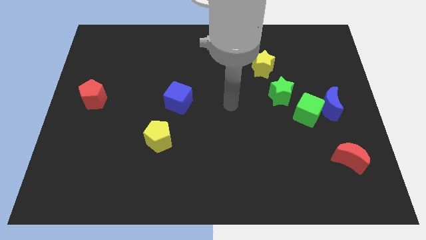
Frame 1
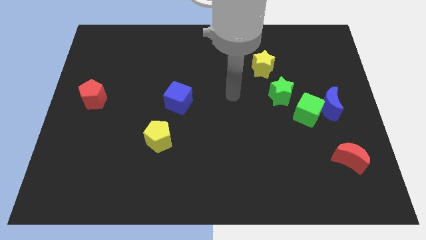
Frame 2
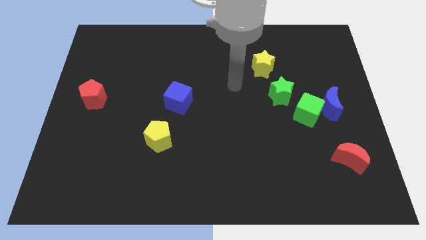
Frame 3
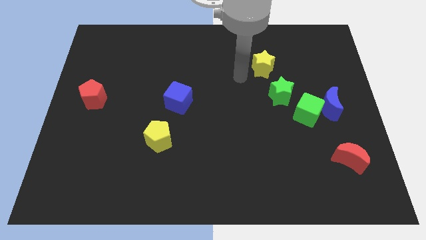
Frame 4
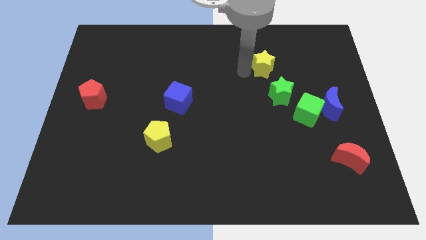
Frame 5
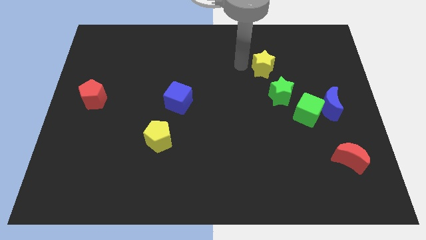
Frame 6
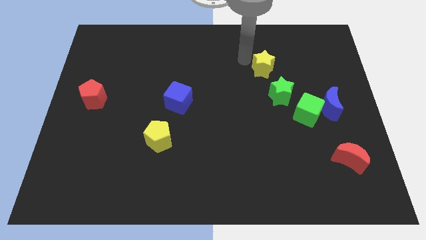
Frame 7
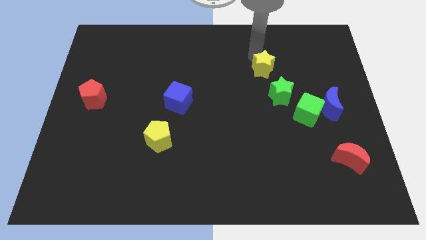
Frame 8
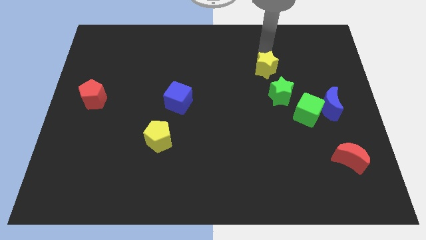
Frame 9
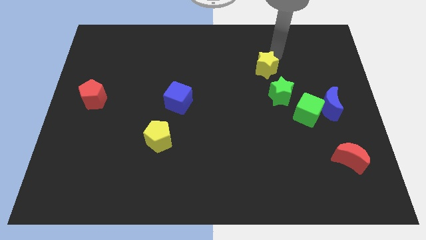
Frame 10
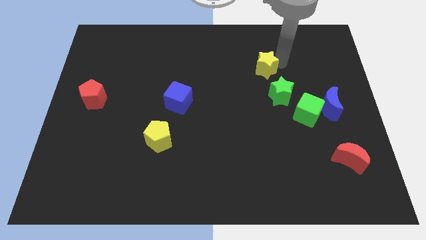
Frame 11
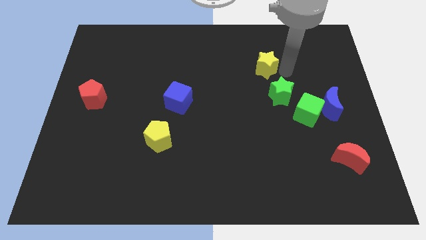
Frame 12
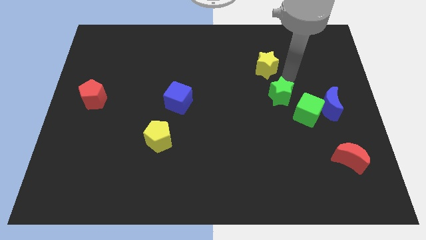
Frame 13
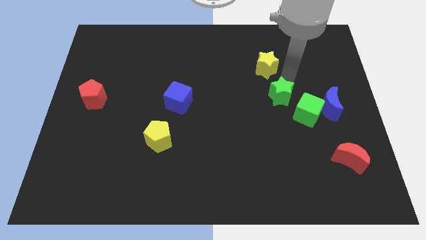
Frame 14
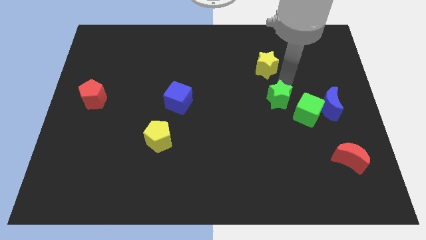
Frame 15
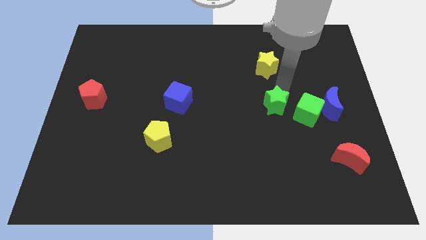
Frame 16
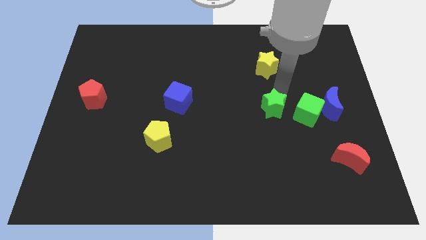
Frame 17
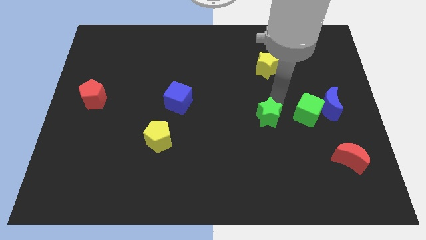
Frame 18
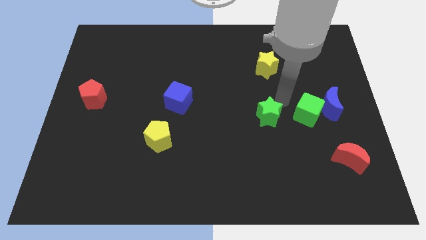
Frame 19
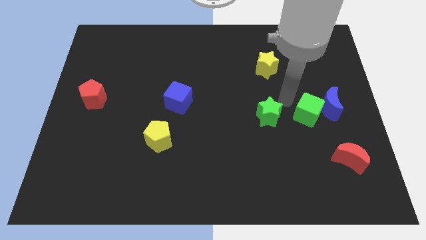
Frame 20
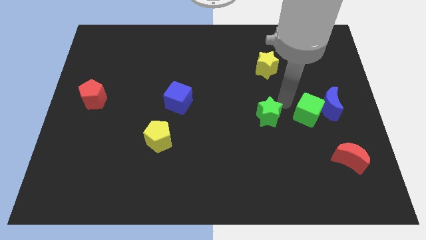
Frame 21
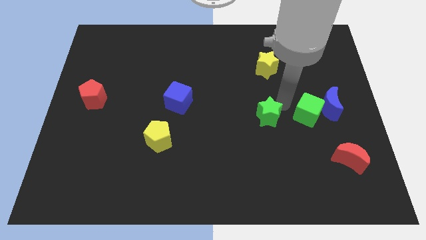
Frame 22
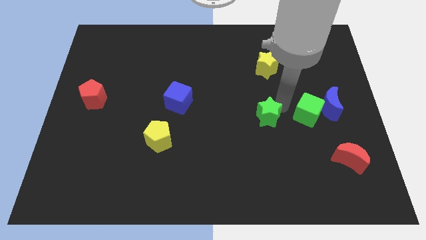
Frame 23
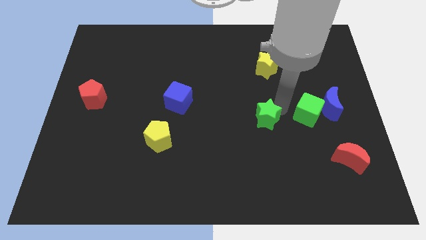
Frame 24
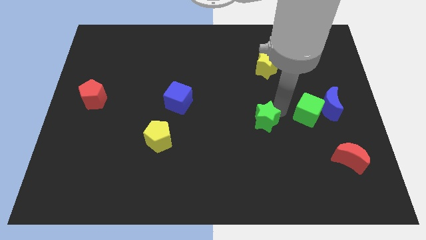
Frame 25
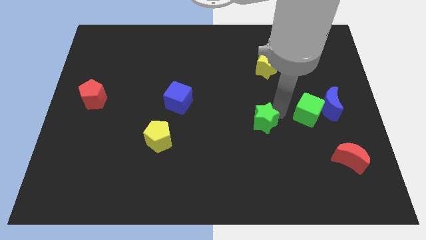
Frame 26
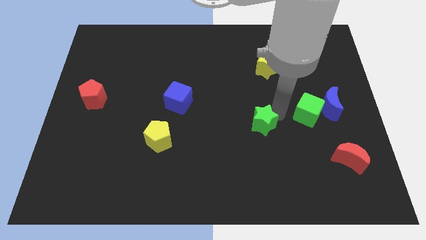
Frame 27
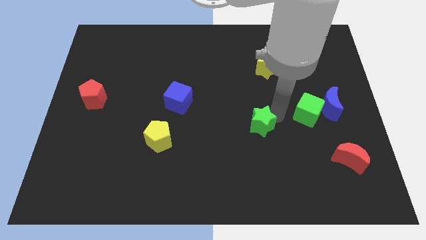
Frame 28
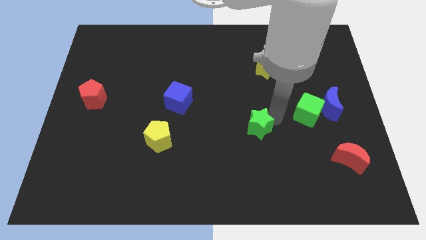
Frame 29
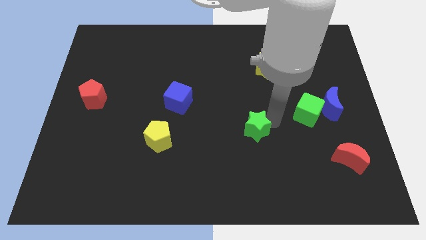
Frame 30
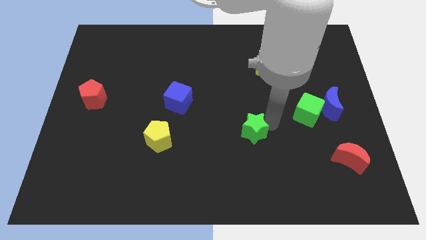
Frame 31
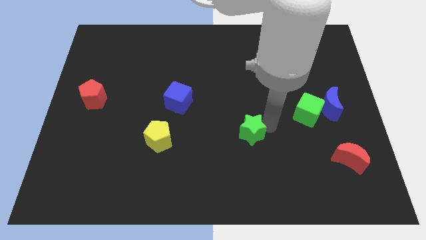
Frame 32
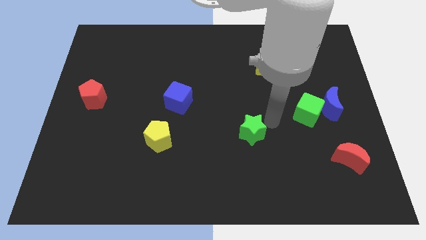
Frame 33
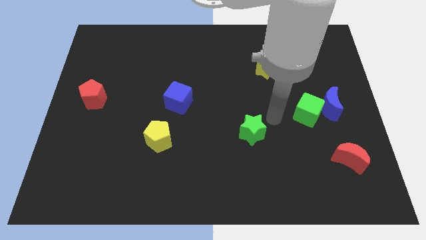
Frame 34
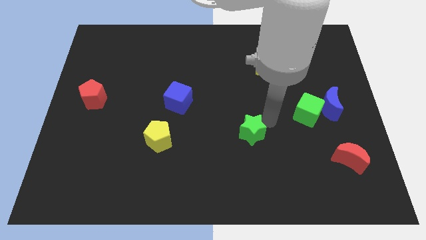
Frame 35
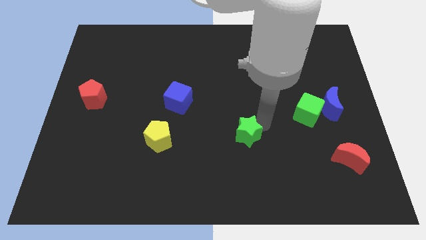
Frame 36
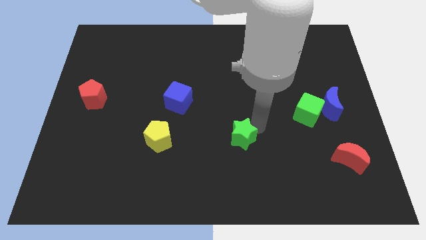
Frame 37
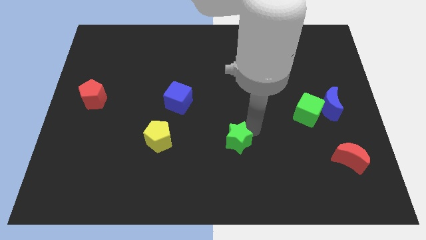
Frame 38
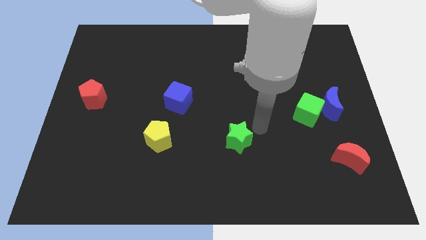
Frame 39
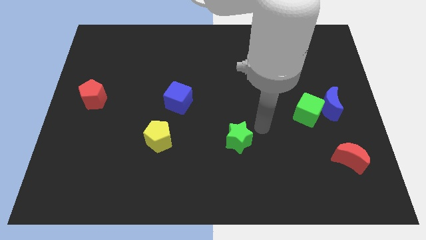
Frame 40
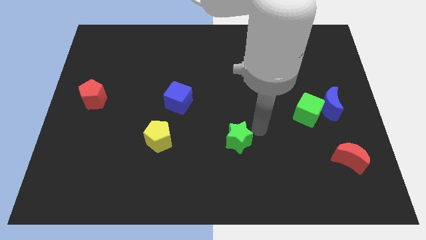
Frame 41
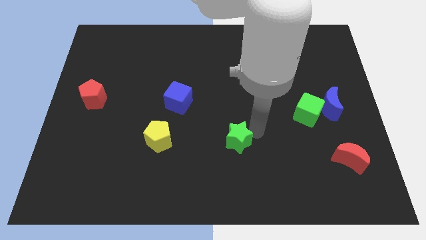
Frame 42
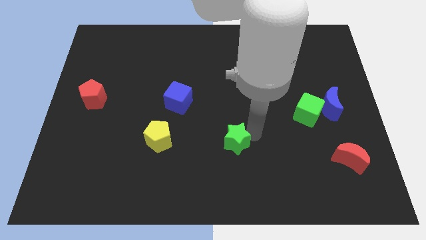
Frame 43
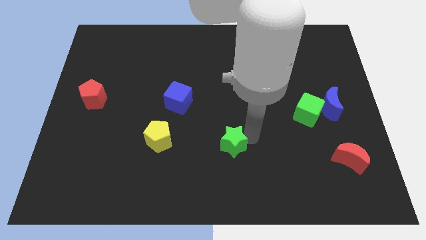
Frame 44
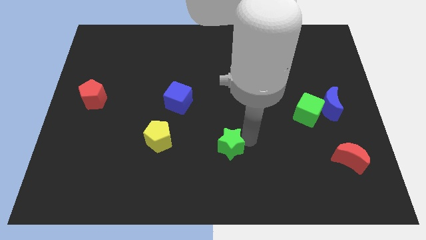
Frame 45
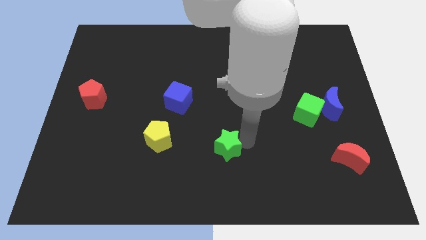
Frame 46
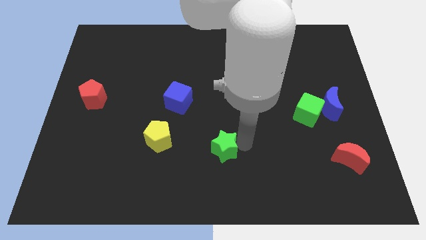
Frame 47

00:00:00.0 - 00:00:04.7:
slide the green star diagonally down and left

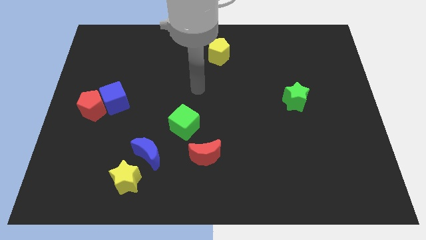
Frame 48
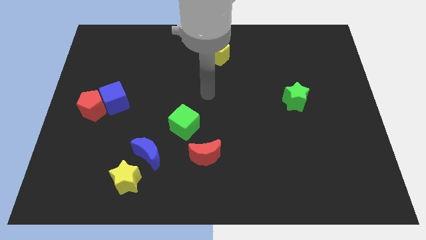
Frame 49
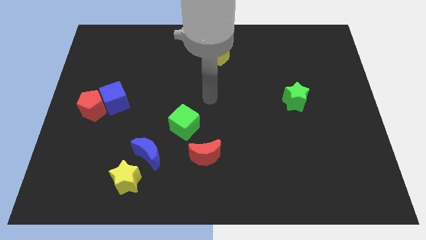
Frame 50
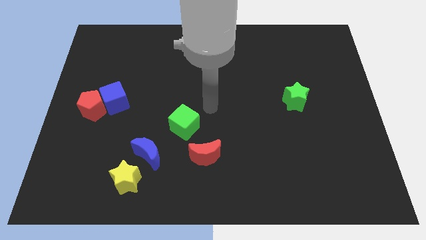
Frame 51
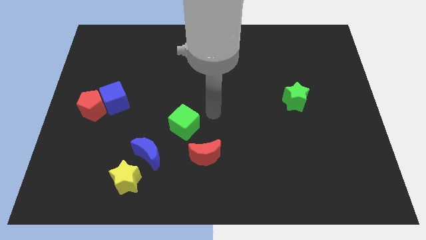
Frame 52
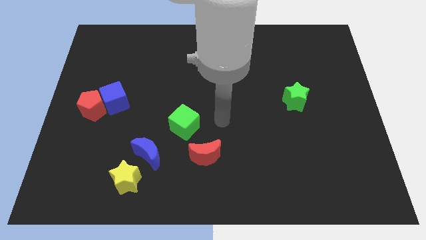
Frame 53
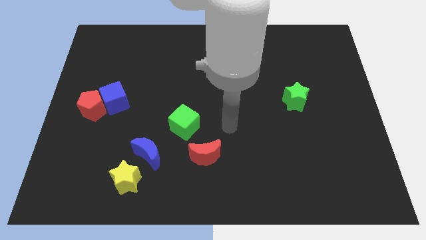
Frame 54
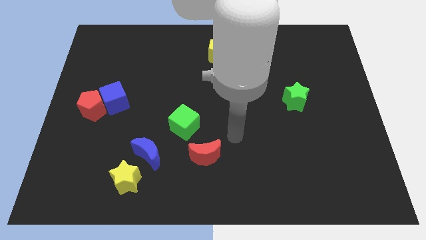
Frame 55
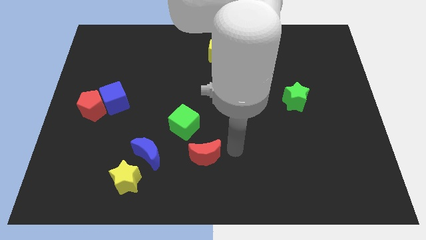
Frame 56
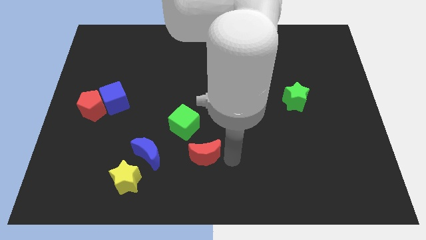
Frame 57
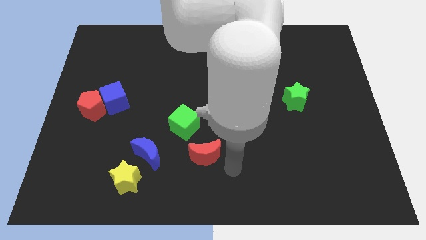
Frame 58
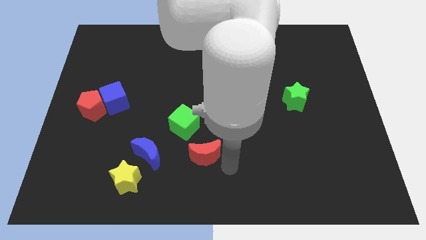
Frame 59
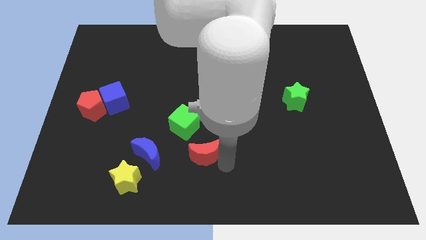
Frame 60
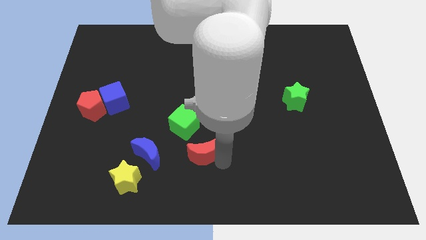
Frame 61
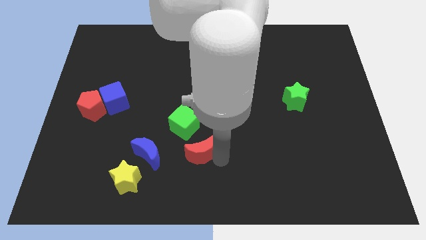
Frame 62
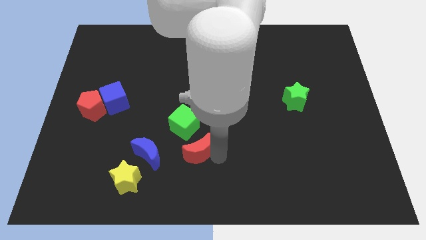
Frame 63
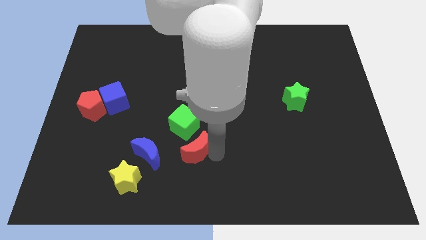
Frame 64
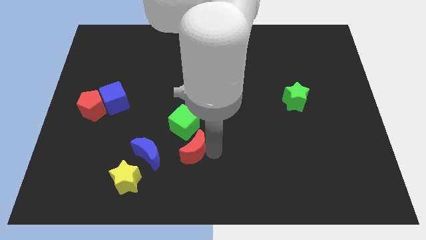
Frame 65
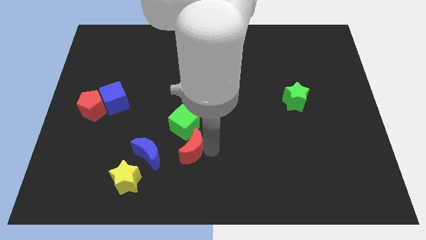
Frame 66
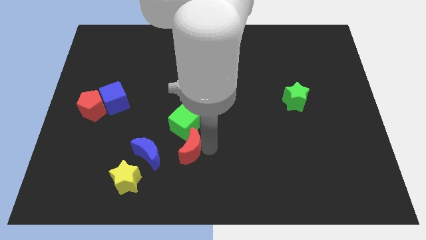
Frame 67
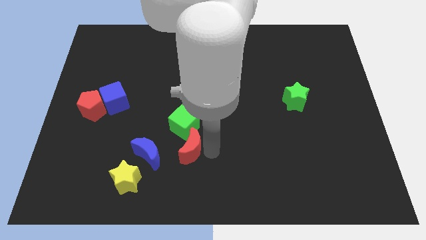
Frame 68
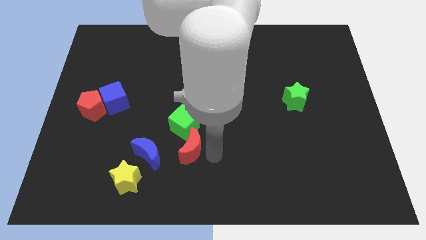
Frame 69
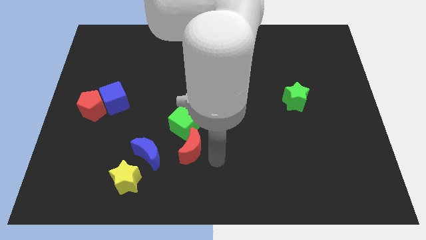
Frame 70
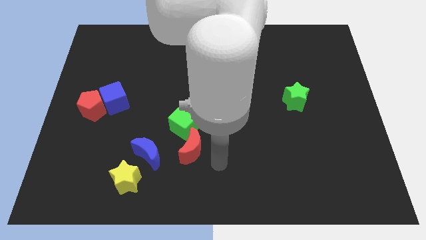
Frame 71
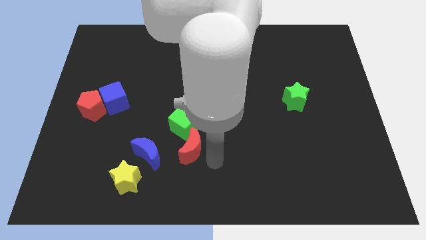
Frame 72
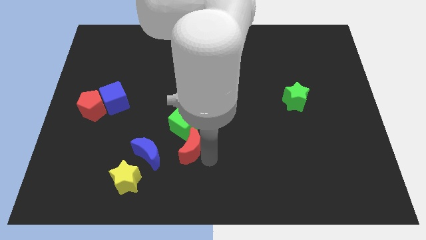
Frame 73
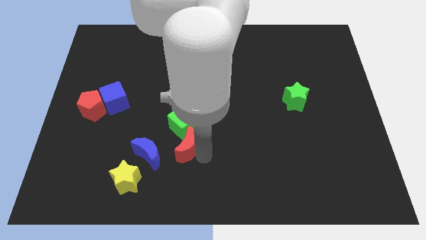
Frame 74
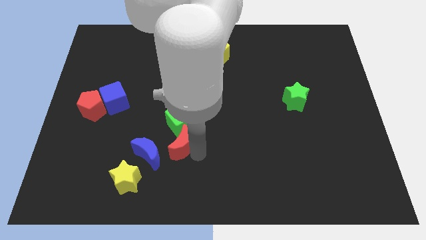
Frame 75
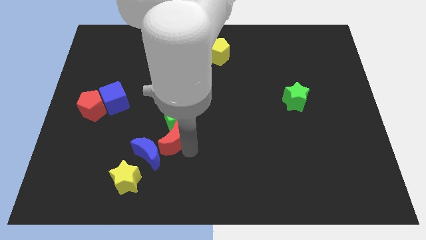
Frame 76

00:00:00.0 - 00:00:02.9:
slightly push the red moon upwards and left diagonally

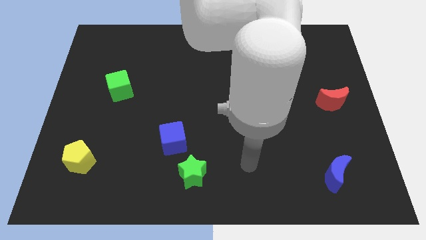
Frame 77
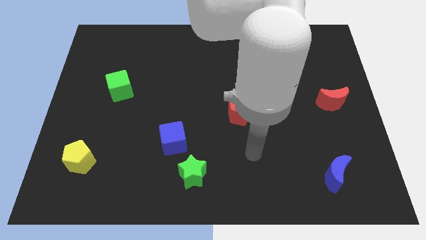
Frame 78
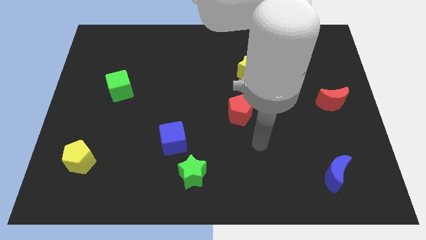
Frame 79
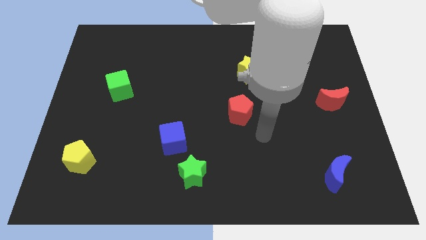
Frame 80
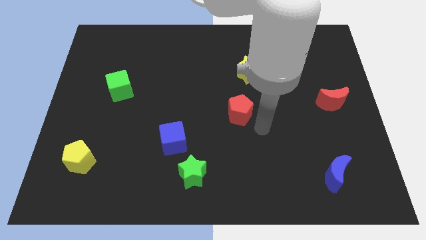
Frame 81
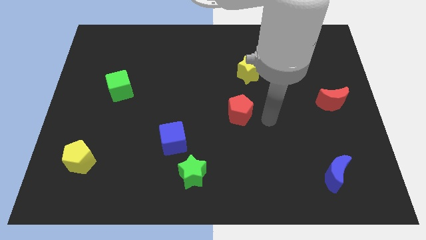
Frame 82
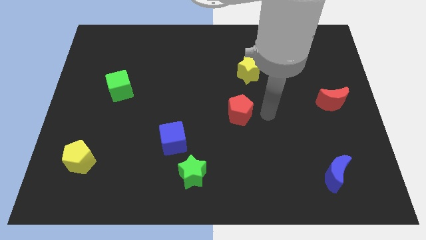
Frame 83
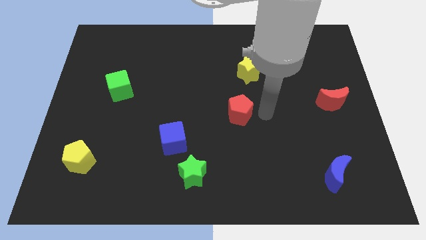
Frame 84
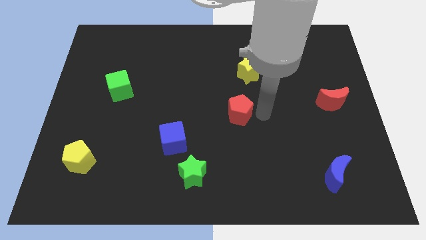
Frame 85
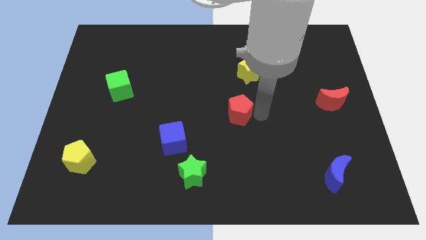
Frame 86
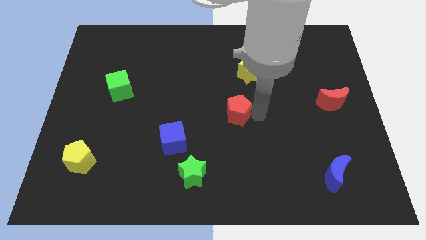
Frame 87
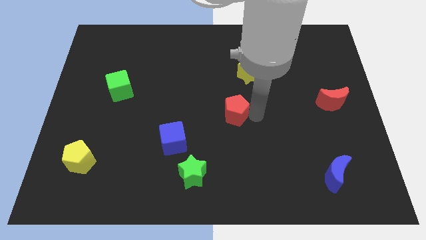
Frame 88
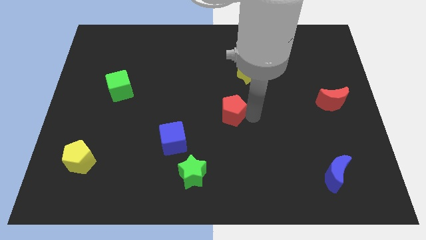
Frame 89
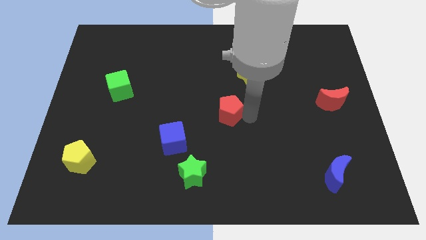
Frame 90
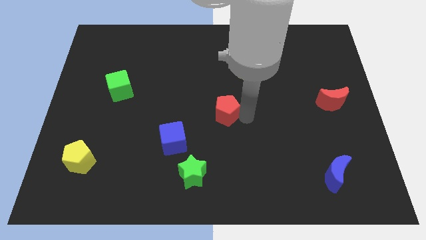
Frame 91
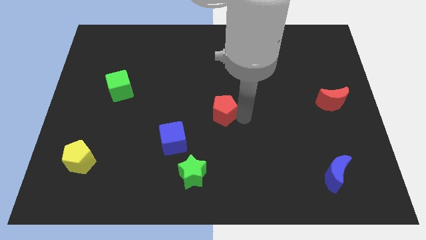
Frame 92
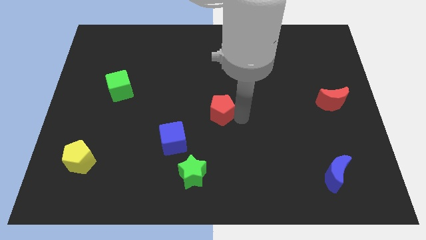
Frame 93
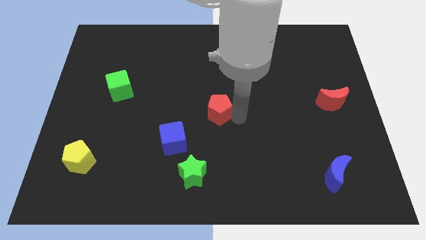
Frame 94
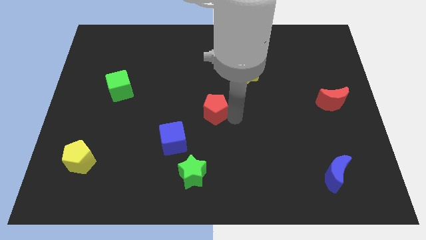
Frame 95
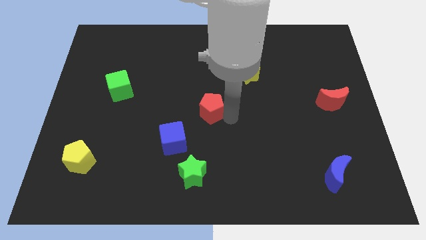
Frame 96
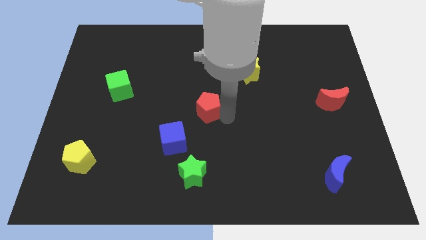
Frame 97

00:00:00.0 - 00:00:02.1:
slightly move the red pentagon left
